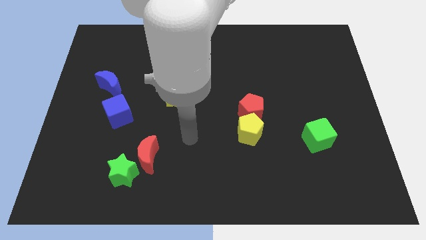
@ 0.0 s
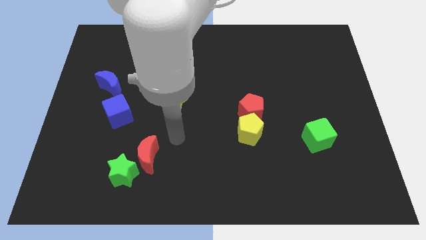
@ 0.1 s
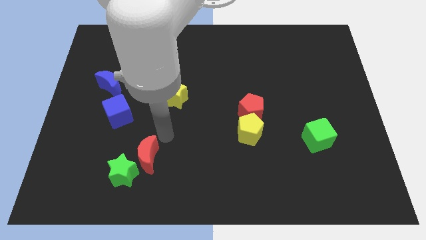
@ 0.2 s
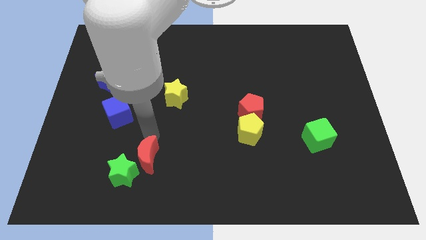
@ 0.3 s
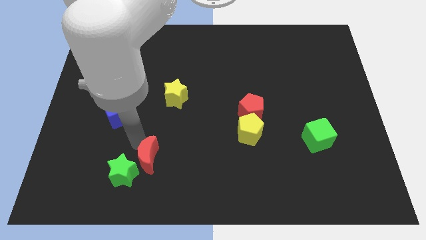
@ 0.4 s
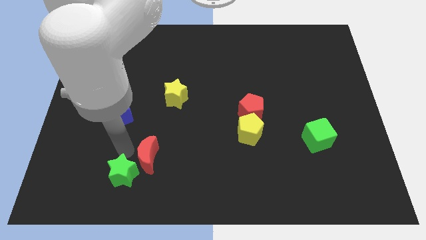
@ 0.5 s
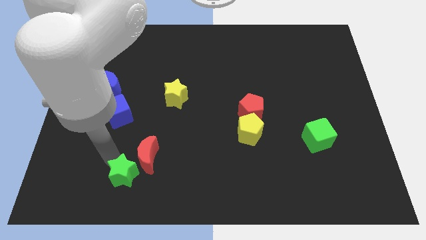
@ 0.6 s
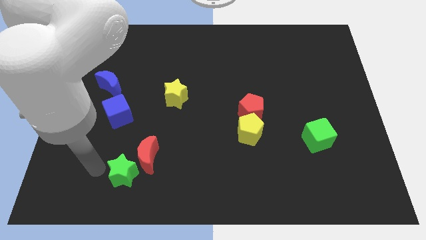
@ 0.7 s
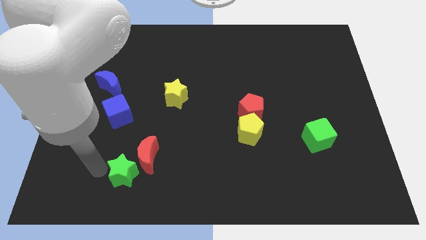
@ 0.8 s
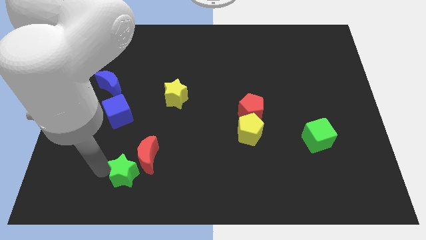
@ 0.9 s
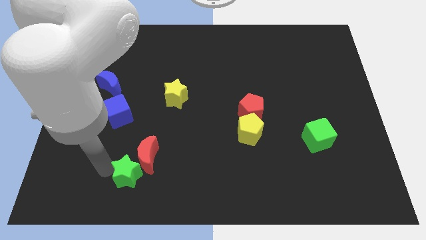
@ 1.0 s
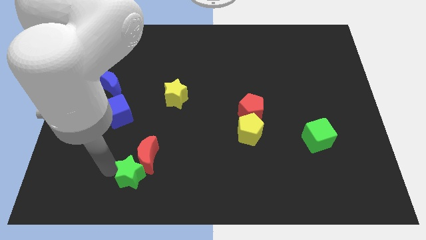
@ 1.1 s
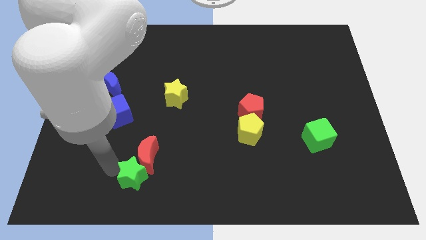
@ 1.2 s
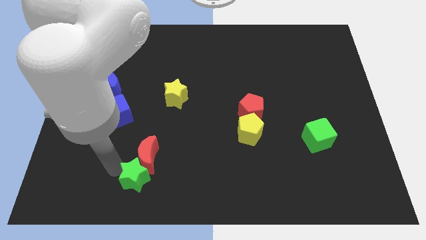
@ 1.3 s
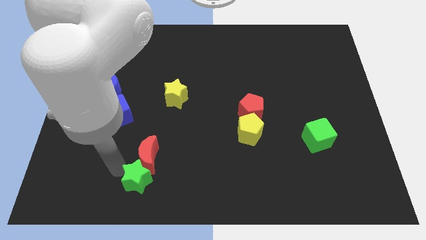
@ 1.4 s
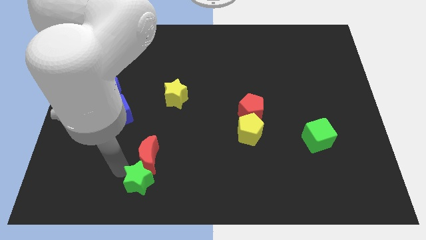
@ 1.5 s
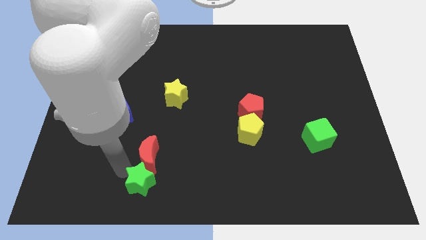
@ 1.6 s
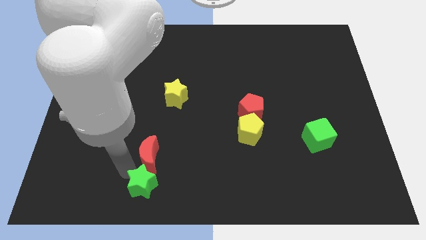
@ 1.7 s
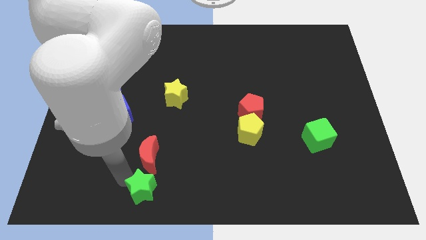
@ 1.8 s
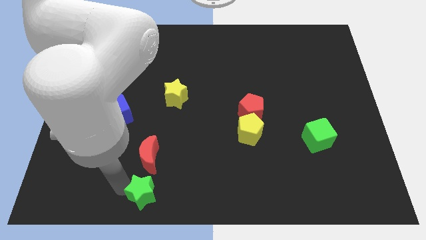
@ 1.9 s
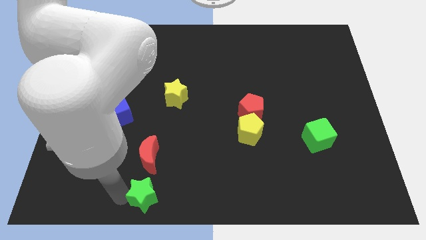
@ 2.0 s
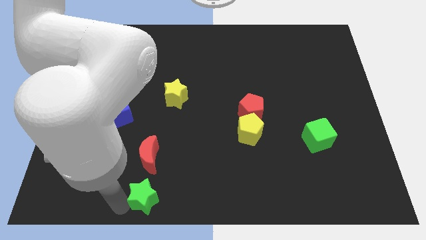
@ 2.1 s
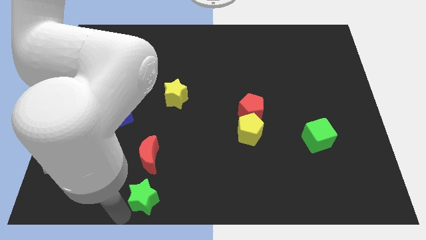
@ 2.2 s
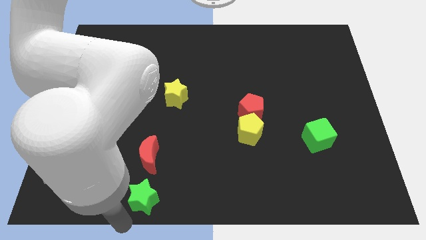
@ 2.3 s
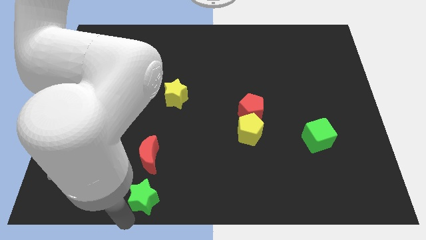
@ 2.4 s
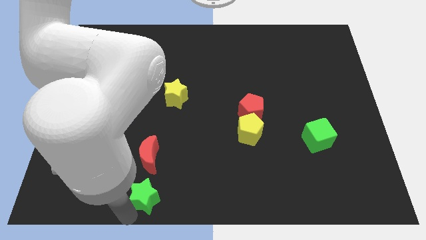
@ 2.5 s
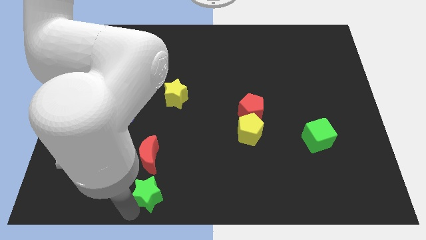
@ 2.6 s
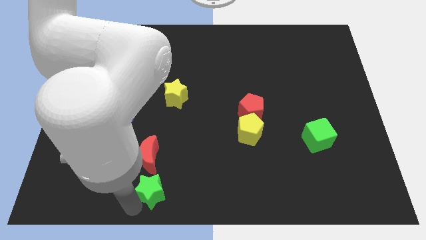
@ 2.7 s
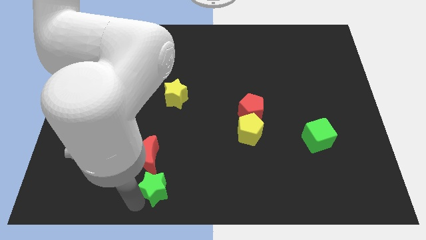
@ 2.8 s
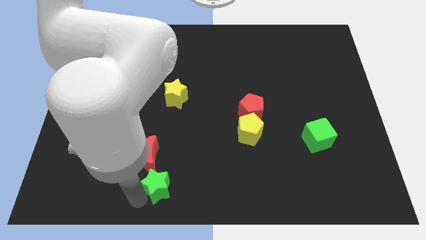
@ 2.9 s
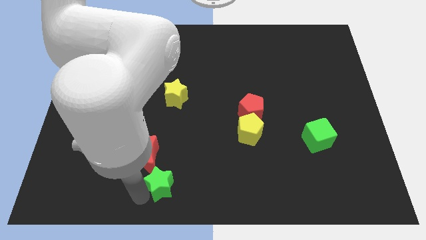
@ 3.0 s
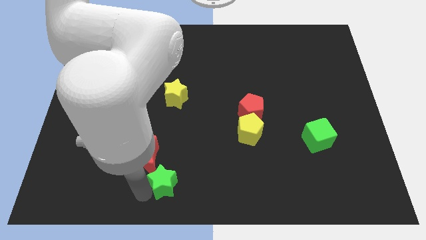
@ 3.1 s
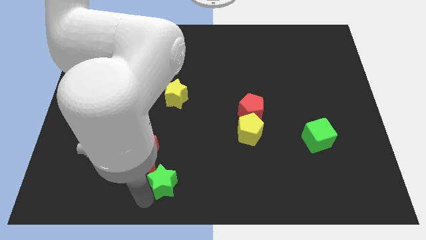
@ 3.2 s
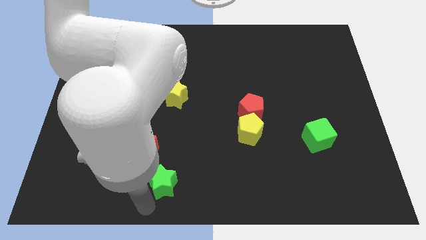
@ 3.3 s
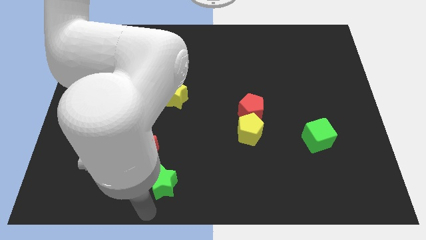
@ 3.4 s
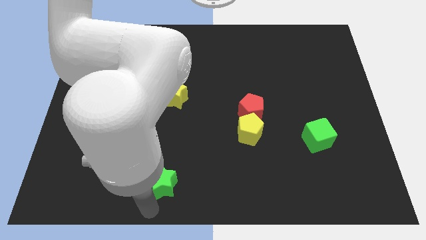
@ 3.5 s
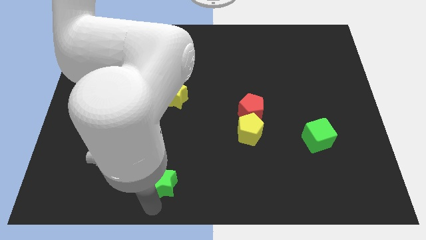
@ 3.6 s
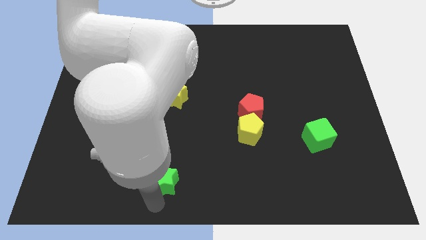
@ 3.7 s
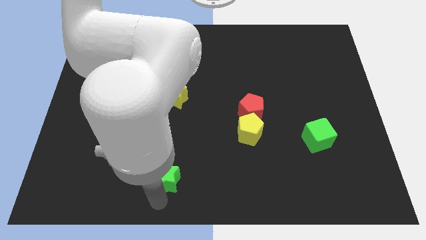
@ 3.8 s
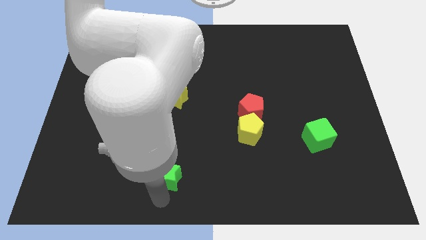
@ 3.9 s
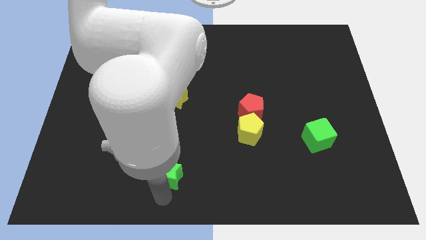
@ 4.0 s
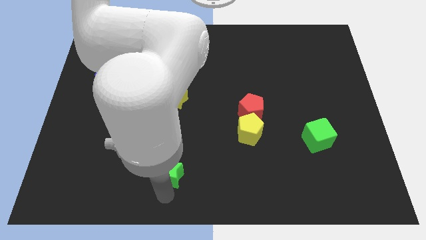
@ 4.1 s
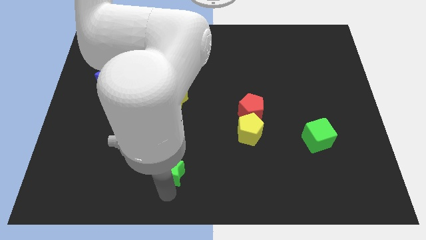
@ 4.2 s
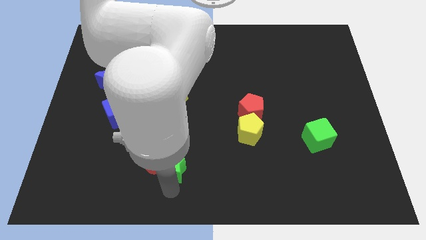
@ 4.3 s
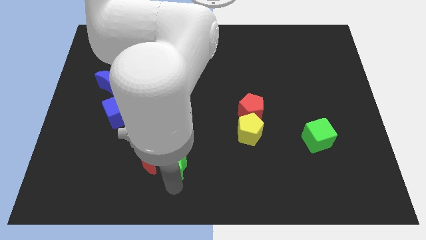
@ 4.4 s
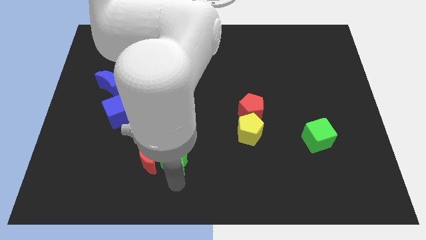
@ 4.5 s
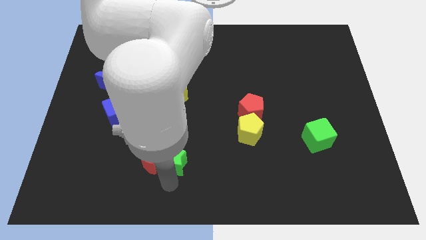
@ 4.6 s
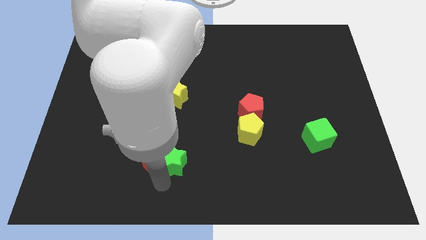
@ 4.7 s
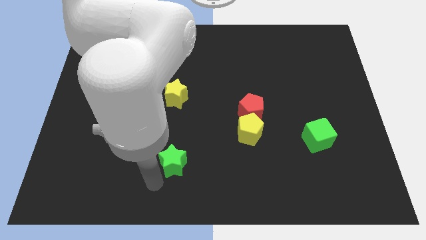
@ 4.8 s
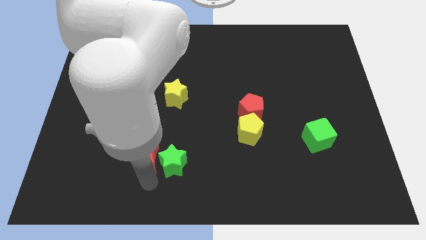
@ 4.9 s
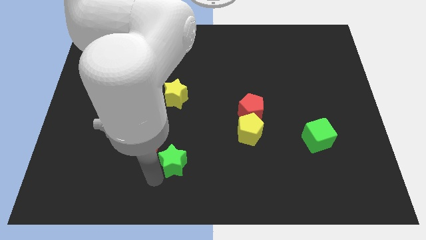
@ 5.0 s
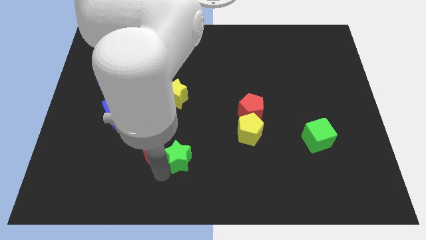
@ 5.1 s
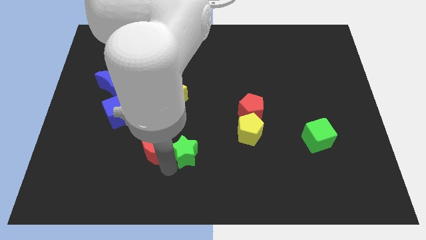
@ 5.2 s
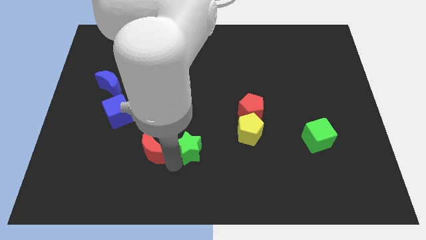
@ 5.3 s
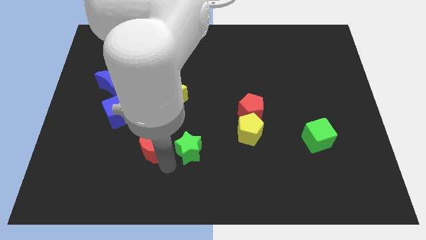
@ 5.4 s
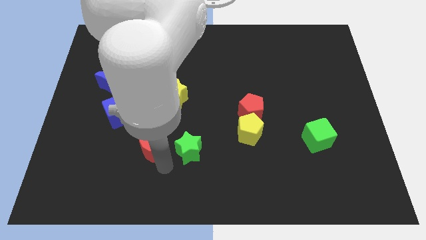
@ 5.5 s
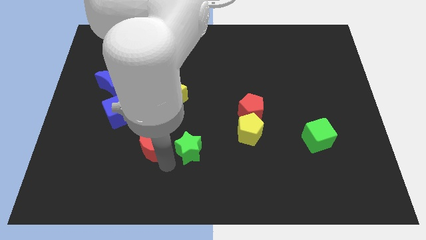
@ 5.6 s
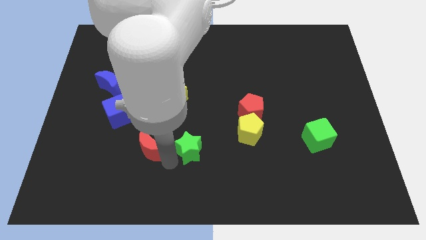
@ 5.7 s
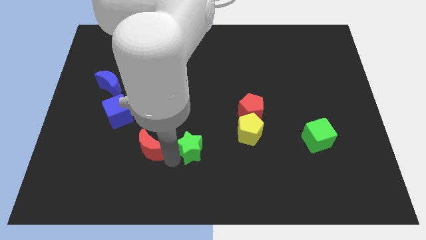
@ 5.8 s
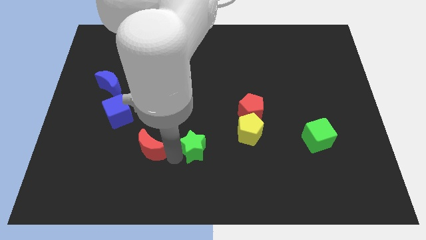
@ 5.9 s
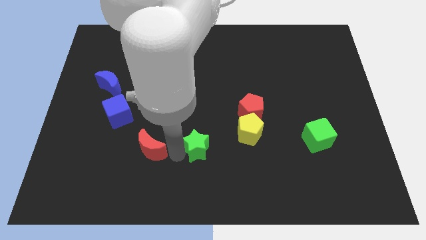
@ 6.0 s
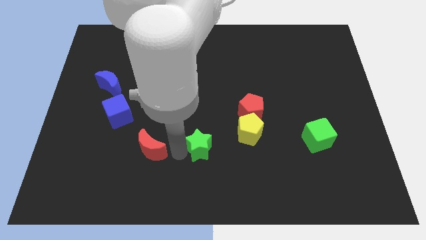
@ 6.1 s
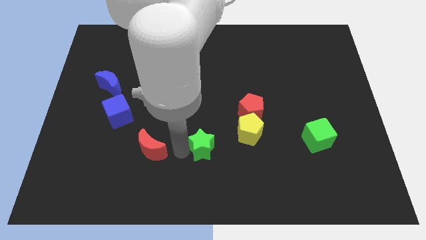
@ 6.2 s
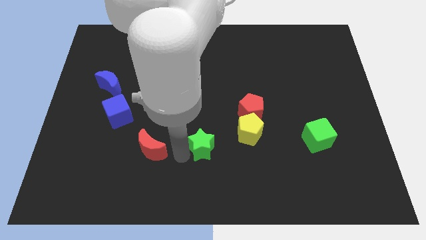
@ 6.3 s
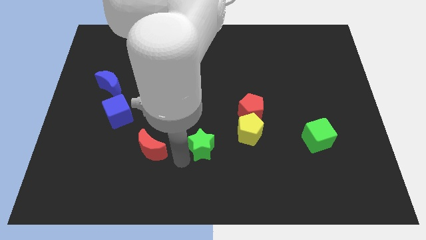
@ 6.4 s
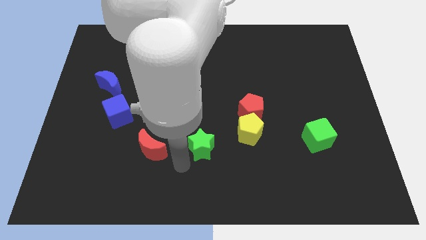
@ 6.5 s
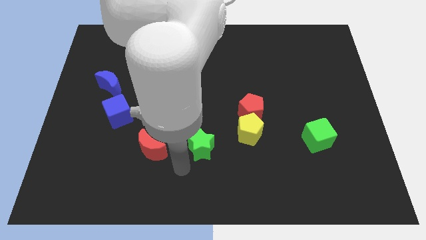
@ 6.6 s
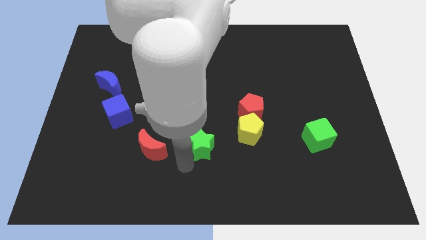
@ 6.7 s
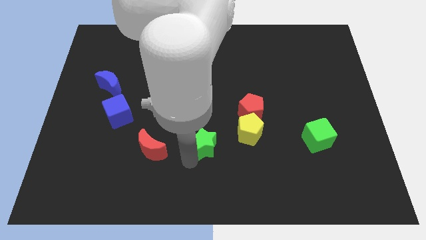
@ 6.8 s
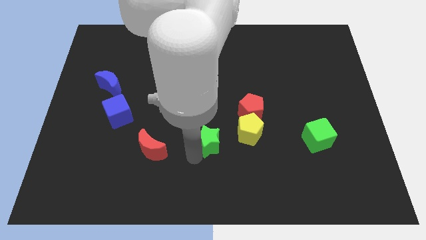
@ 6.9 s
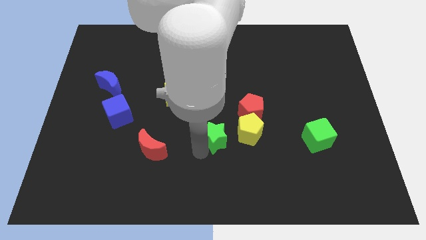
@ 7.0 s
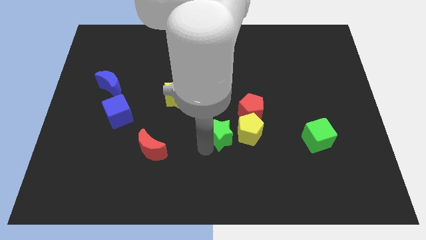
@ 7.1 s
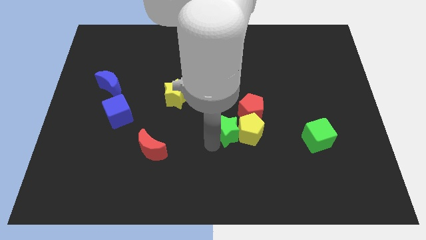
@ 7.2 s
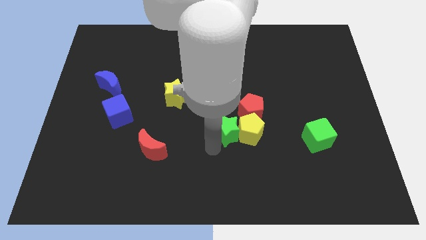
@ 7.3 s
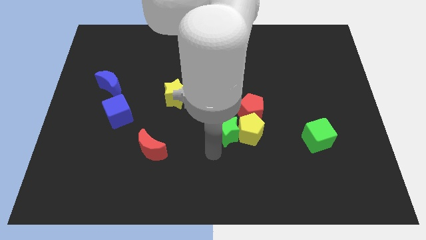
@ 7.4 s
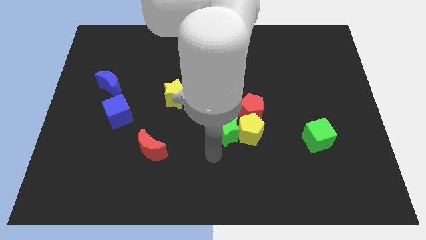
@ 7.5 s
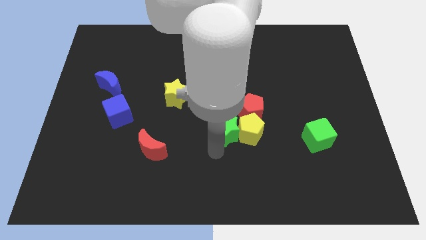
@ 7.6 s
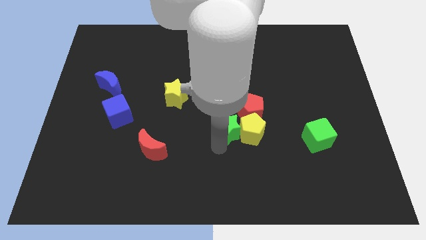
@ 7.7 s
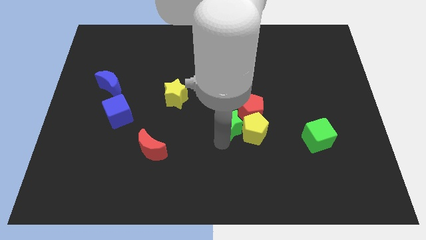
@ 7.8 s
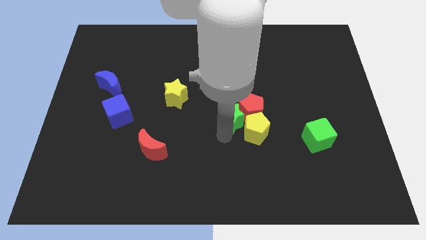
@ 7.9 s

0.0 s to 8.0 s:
push the green star to the red pentagon
